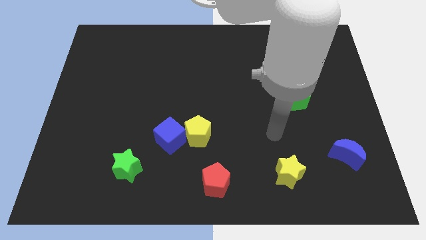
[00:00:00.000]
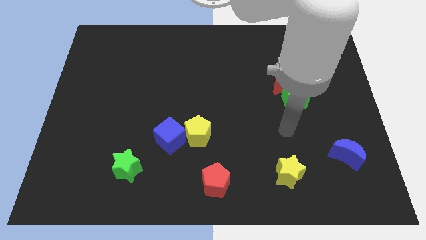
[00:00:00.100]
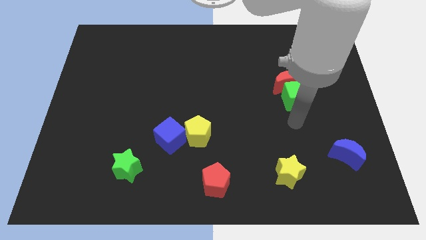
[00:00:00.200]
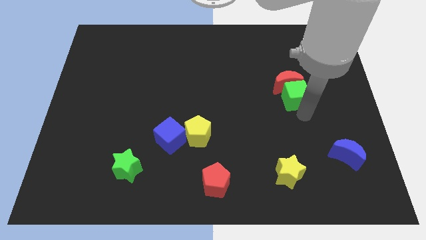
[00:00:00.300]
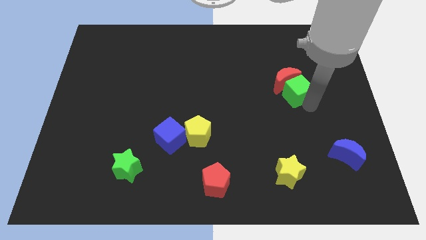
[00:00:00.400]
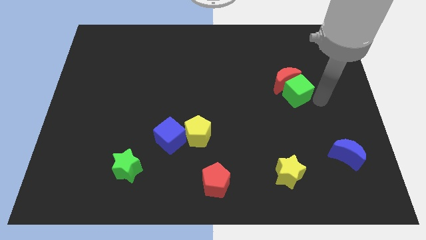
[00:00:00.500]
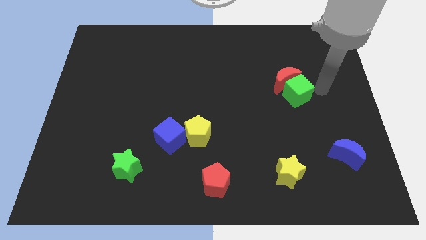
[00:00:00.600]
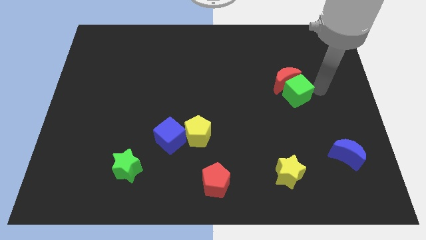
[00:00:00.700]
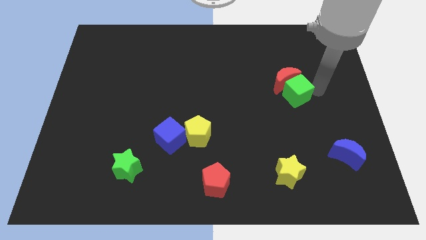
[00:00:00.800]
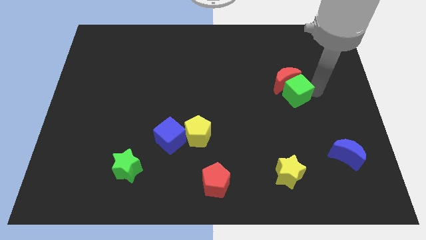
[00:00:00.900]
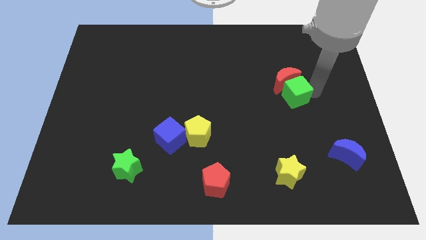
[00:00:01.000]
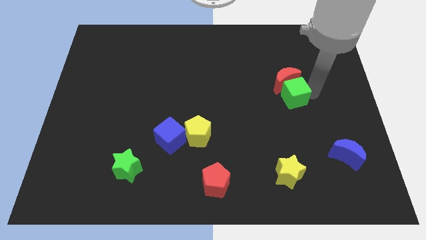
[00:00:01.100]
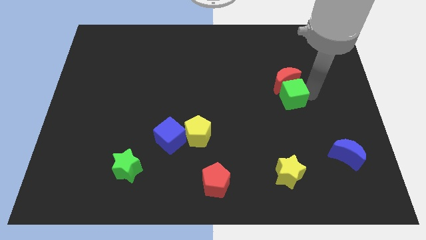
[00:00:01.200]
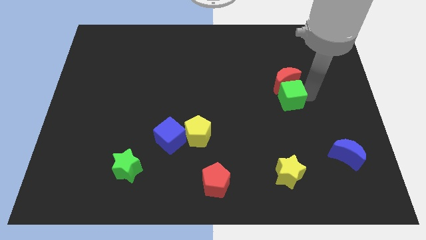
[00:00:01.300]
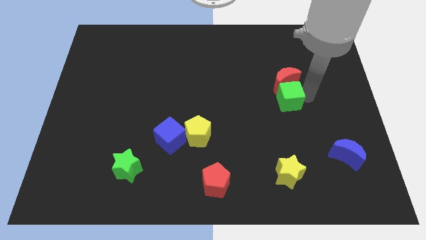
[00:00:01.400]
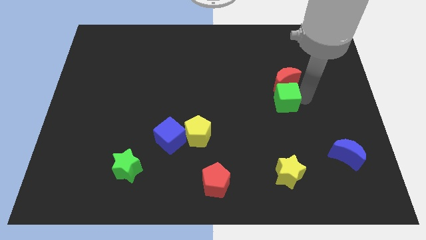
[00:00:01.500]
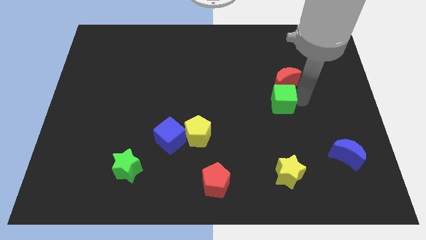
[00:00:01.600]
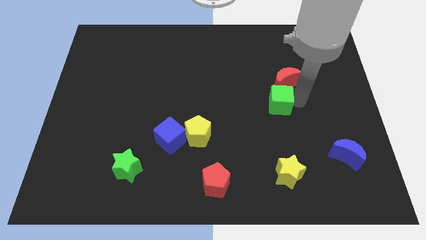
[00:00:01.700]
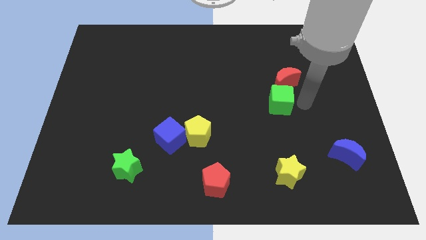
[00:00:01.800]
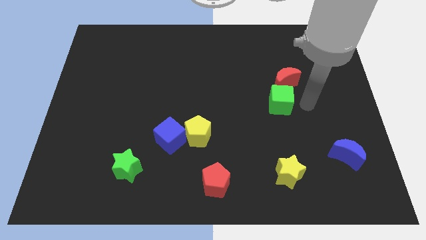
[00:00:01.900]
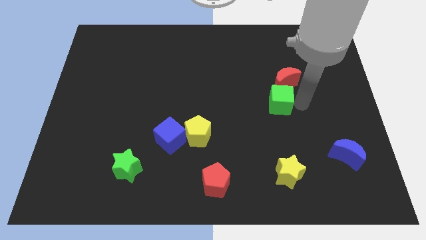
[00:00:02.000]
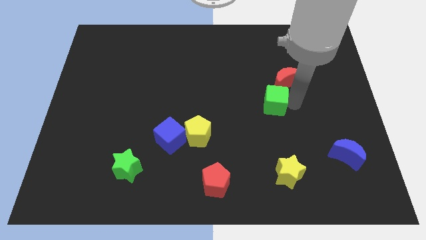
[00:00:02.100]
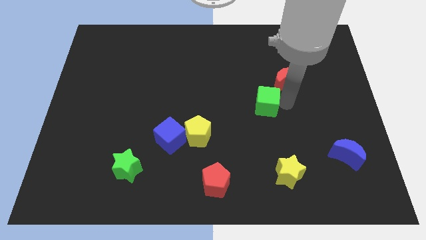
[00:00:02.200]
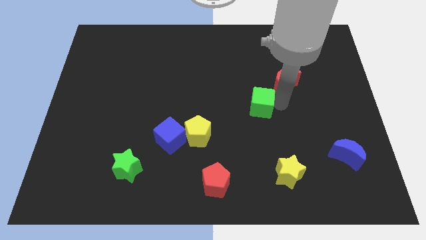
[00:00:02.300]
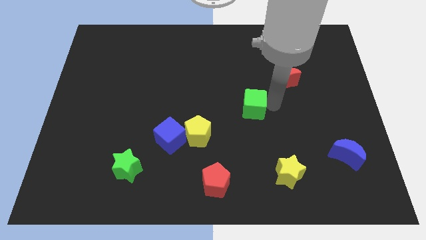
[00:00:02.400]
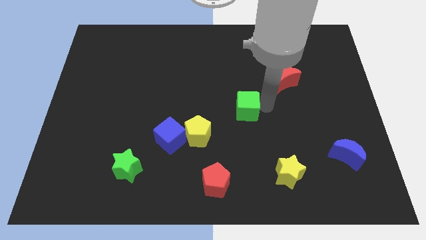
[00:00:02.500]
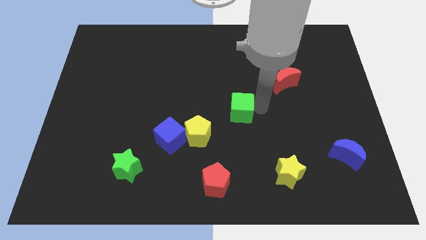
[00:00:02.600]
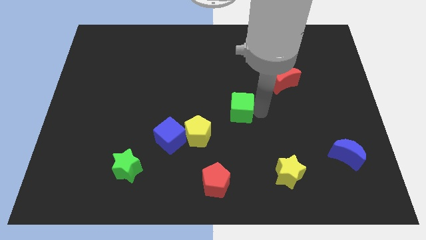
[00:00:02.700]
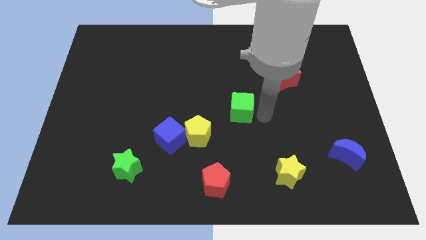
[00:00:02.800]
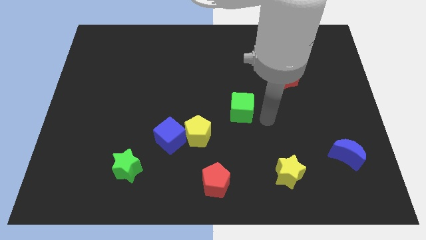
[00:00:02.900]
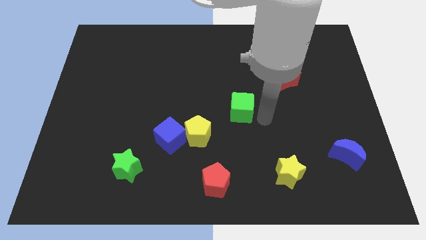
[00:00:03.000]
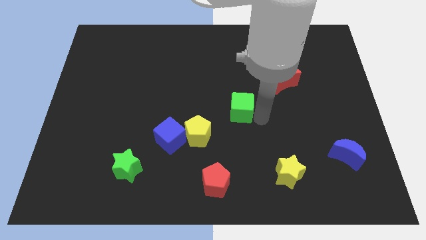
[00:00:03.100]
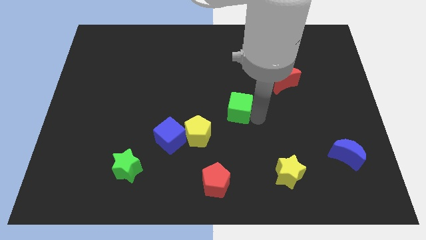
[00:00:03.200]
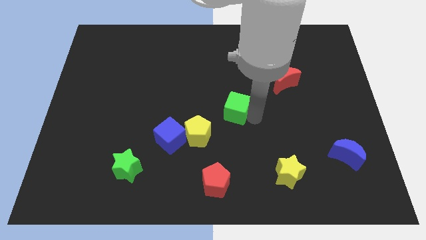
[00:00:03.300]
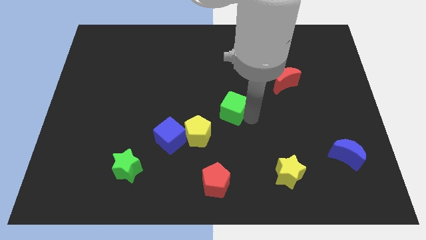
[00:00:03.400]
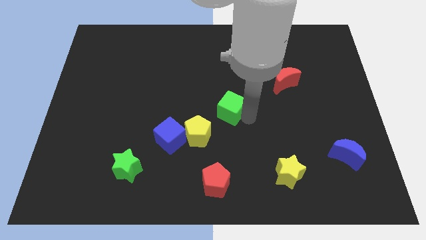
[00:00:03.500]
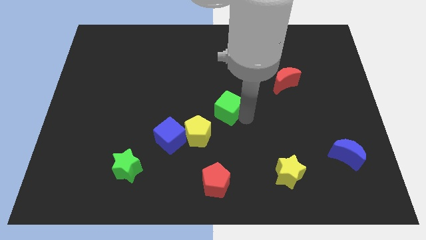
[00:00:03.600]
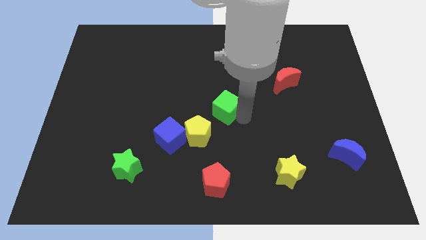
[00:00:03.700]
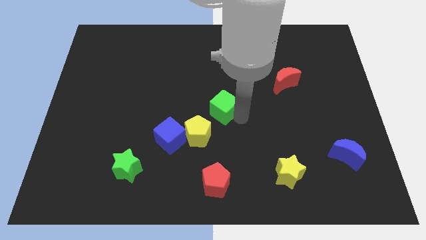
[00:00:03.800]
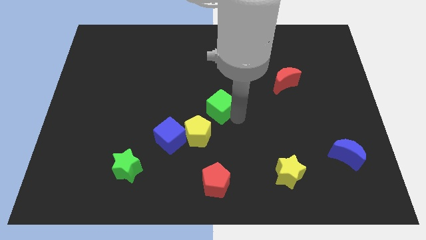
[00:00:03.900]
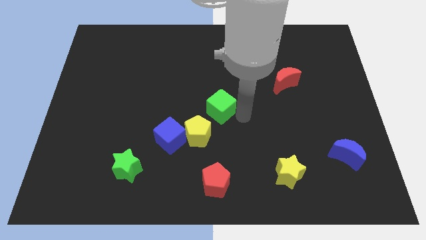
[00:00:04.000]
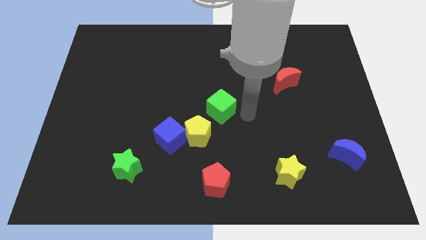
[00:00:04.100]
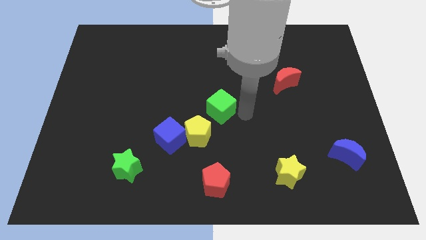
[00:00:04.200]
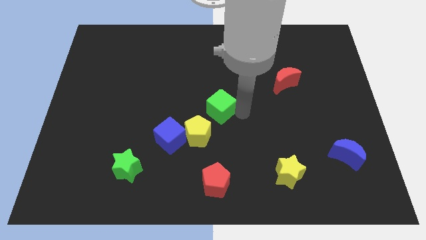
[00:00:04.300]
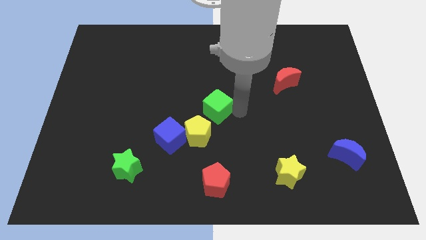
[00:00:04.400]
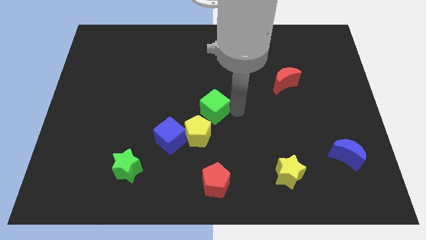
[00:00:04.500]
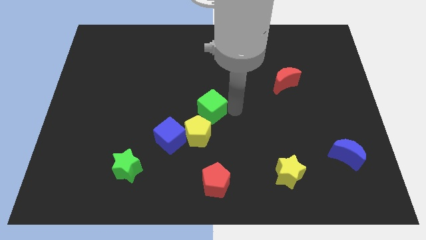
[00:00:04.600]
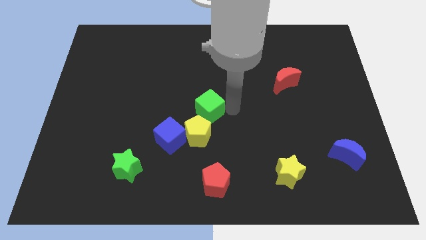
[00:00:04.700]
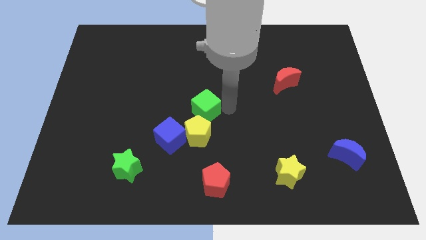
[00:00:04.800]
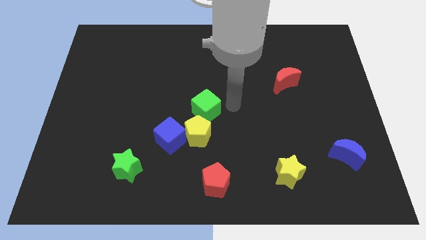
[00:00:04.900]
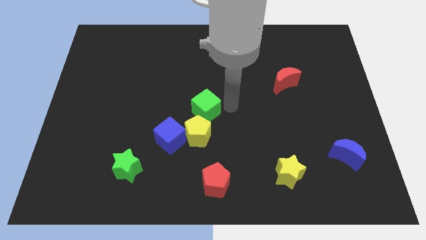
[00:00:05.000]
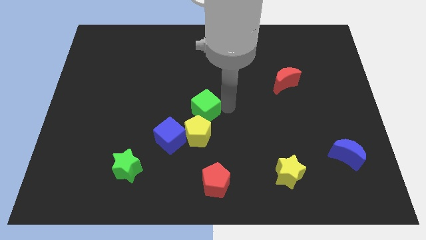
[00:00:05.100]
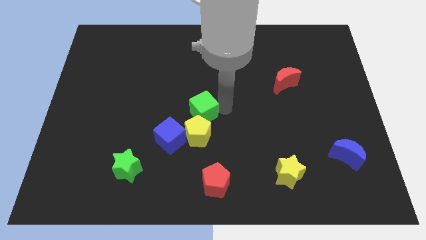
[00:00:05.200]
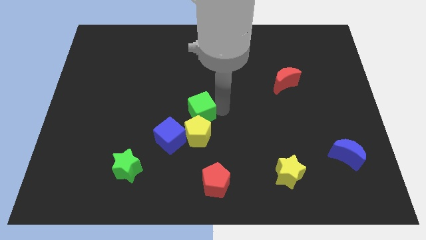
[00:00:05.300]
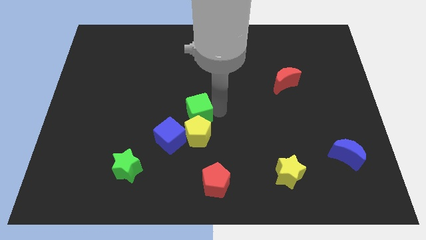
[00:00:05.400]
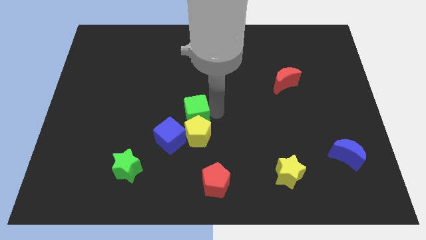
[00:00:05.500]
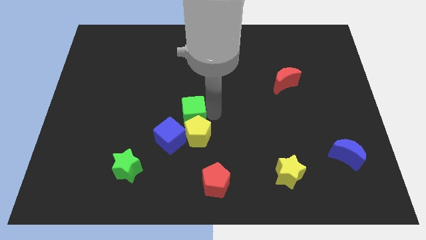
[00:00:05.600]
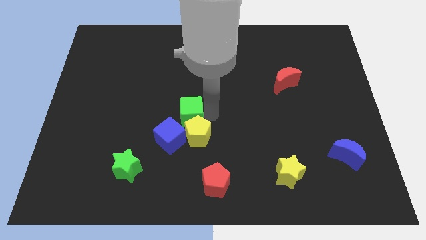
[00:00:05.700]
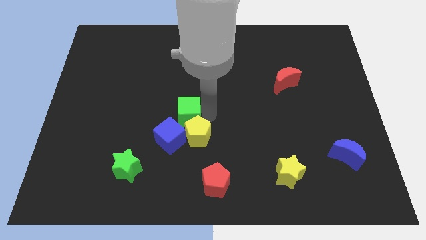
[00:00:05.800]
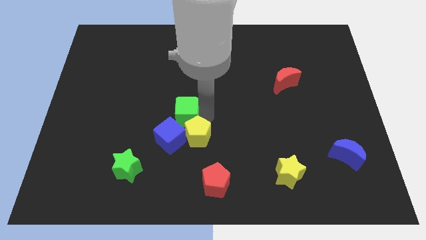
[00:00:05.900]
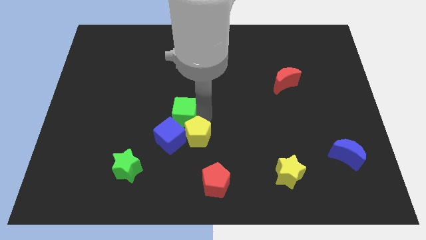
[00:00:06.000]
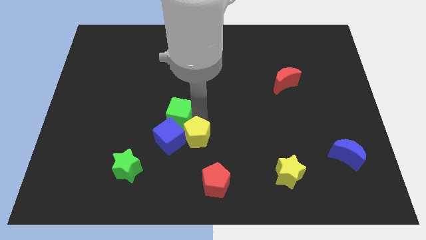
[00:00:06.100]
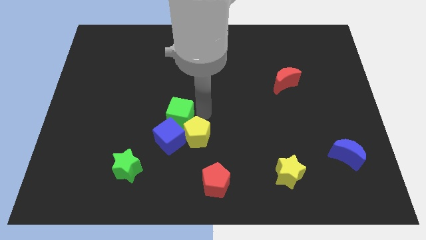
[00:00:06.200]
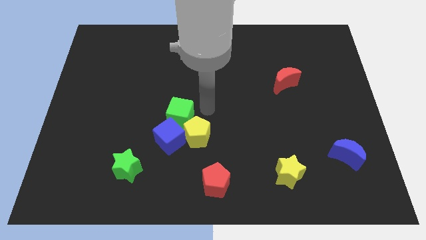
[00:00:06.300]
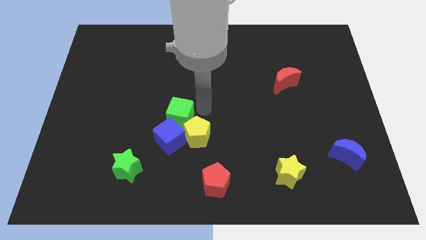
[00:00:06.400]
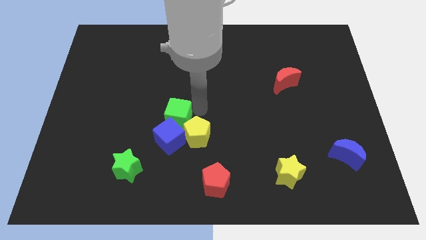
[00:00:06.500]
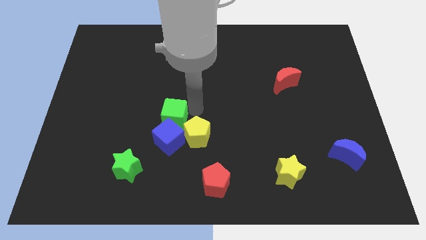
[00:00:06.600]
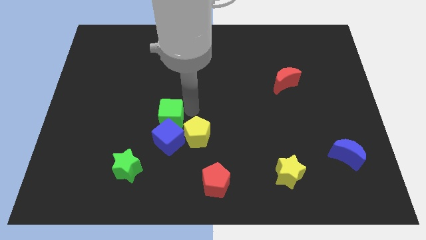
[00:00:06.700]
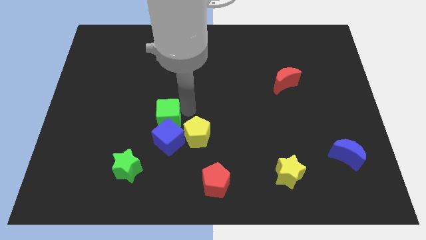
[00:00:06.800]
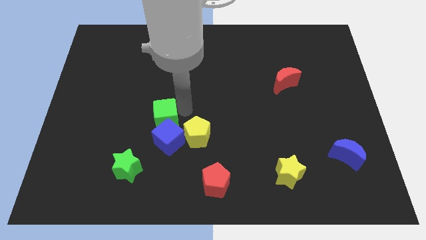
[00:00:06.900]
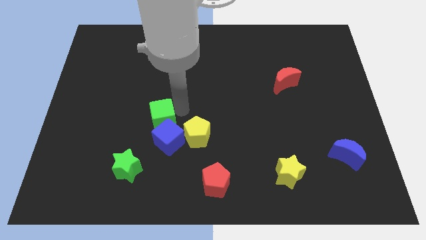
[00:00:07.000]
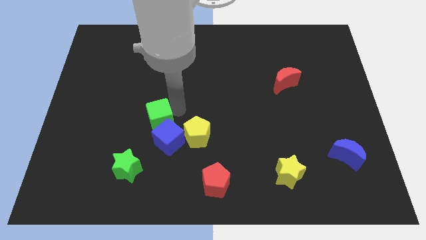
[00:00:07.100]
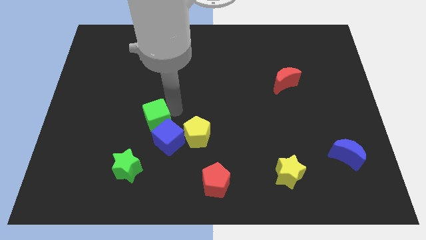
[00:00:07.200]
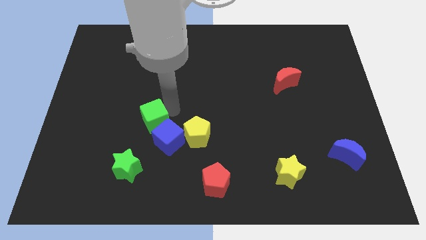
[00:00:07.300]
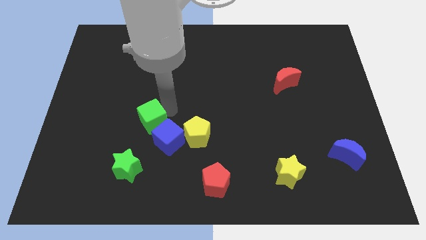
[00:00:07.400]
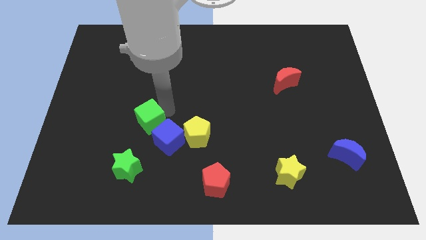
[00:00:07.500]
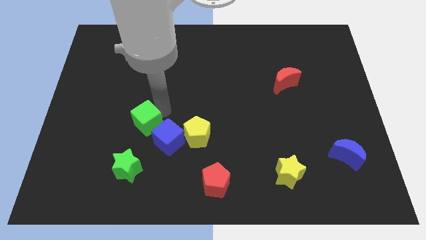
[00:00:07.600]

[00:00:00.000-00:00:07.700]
move the green cube just left of the blue cube
